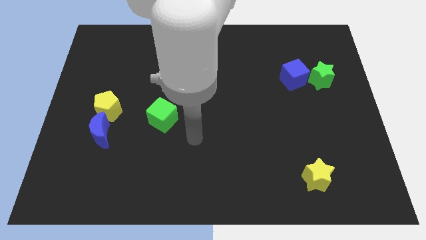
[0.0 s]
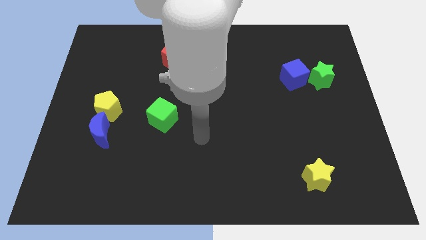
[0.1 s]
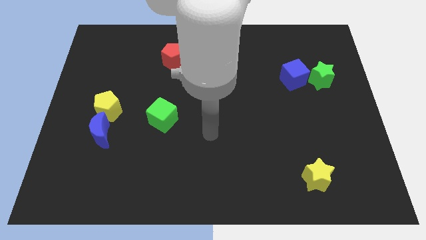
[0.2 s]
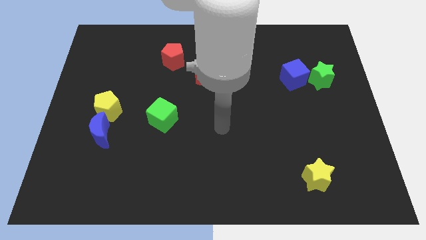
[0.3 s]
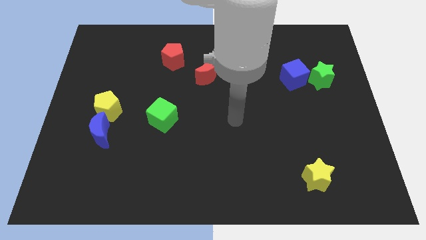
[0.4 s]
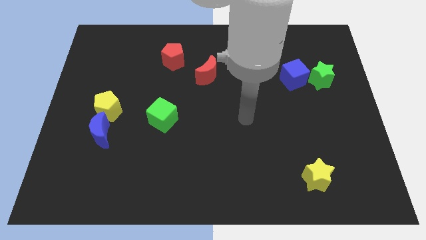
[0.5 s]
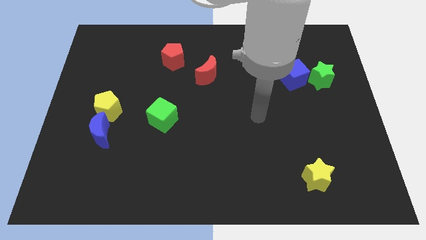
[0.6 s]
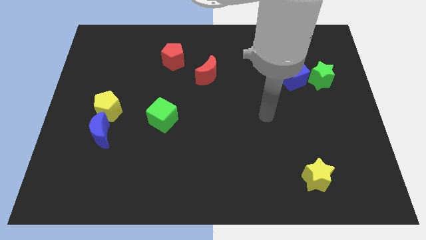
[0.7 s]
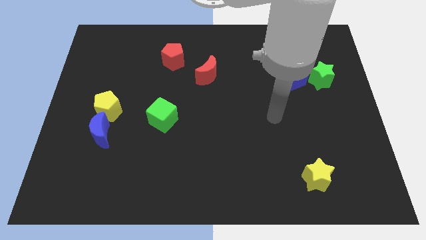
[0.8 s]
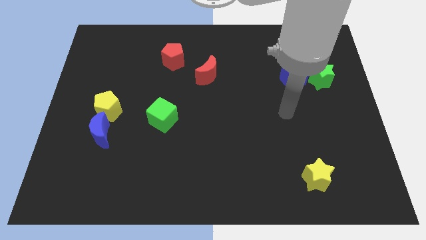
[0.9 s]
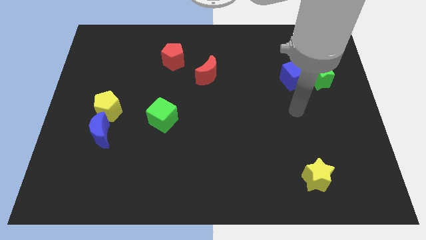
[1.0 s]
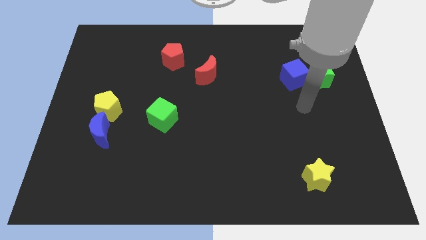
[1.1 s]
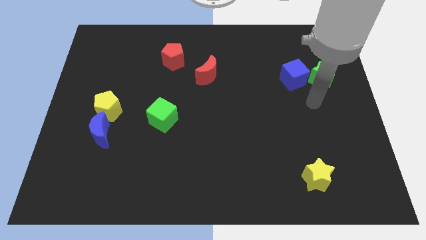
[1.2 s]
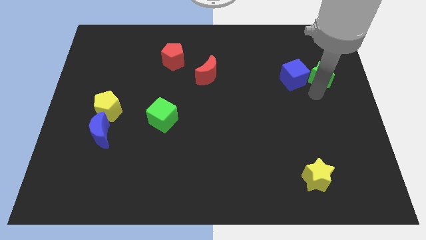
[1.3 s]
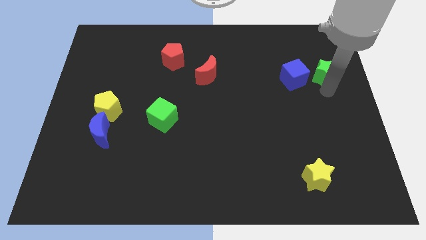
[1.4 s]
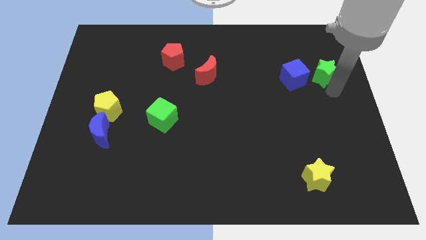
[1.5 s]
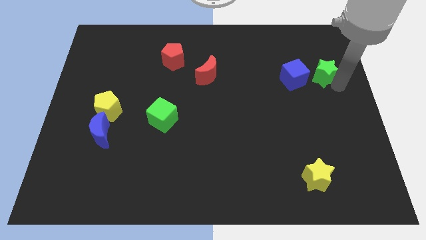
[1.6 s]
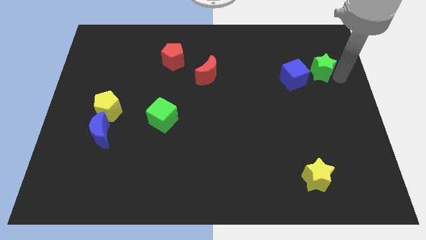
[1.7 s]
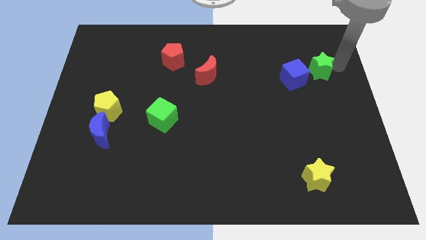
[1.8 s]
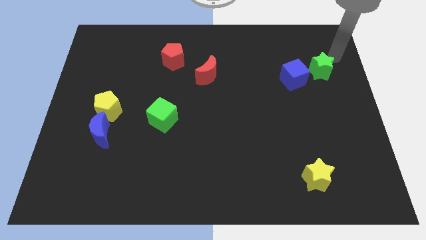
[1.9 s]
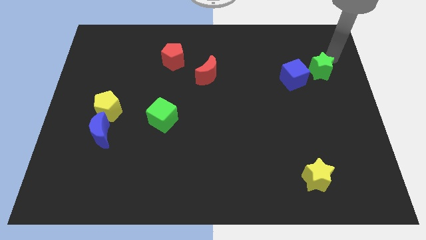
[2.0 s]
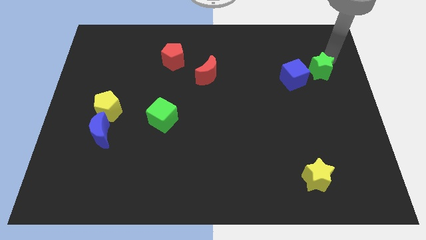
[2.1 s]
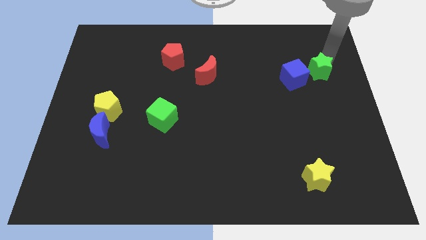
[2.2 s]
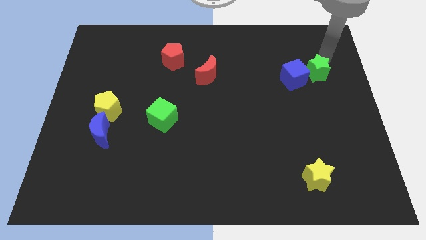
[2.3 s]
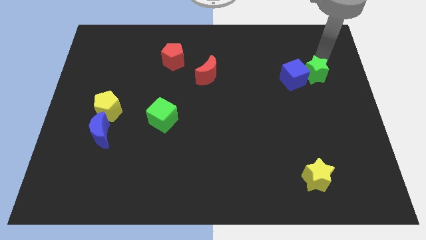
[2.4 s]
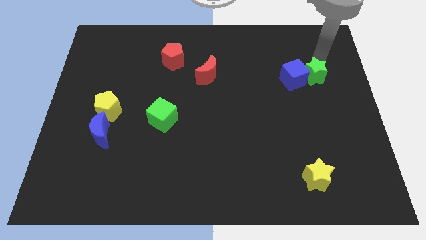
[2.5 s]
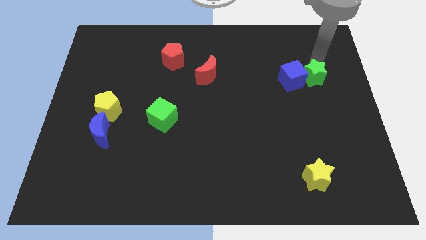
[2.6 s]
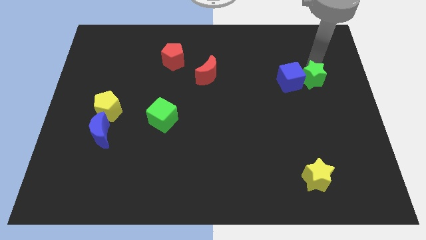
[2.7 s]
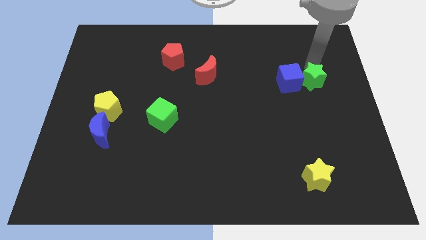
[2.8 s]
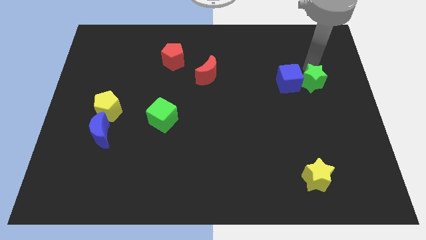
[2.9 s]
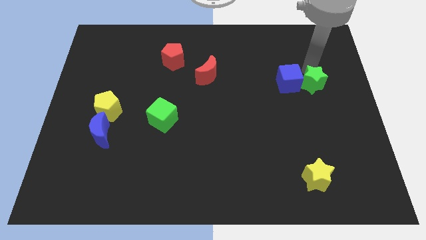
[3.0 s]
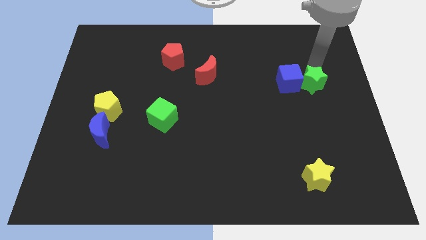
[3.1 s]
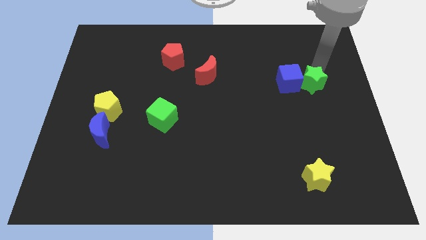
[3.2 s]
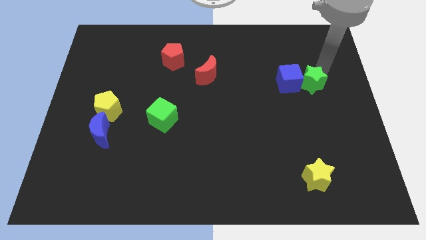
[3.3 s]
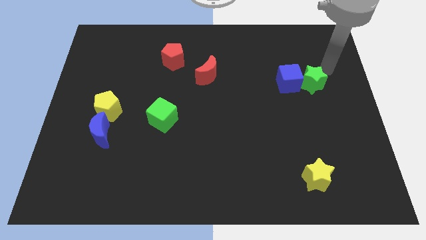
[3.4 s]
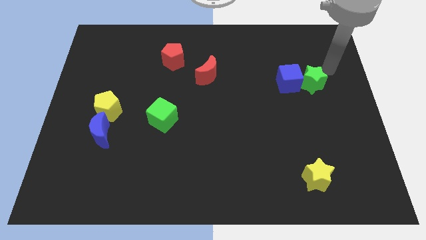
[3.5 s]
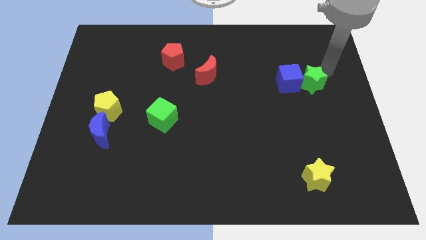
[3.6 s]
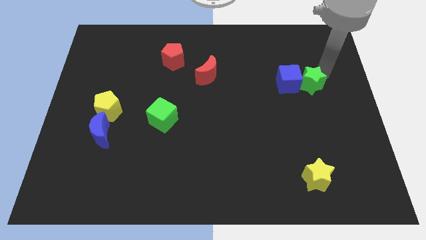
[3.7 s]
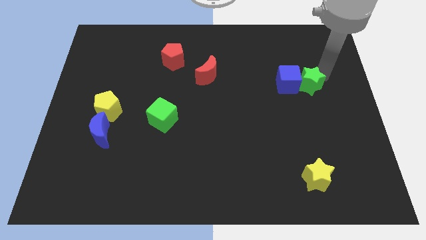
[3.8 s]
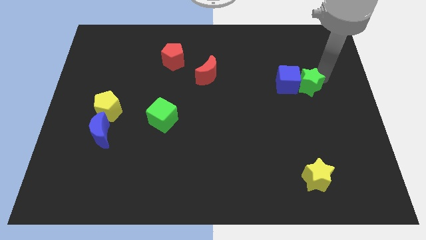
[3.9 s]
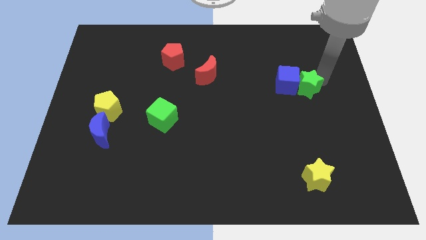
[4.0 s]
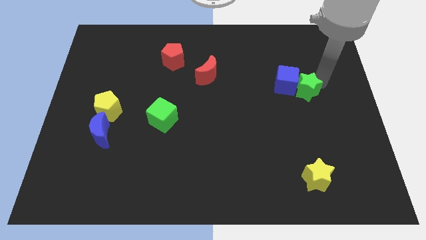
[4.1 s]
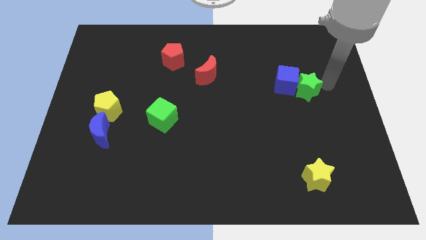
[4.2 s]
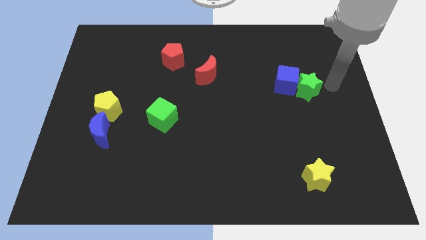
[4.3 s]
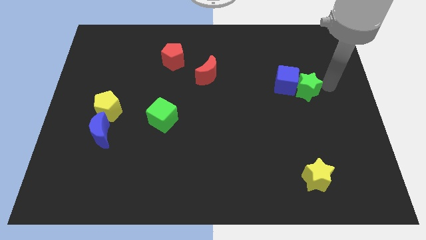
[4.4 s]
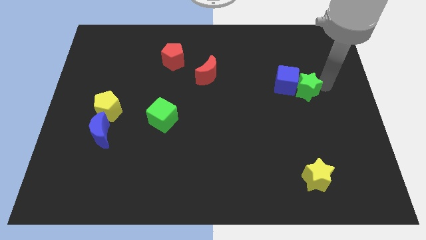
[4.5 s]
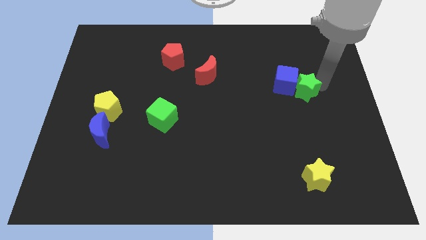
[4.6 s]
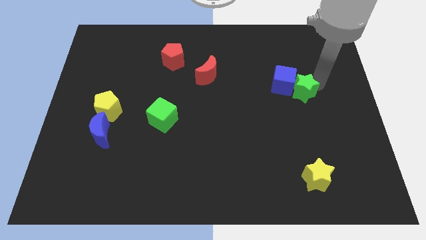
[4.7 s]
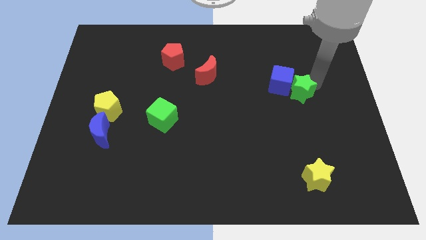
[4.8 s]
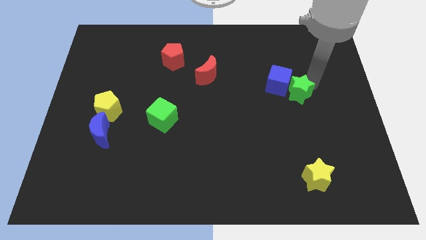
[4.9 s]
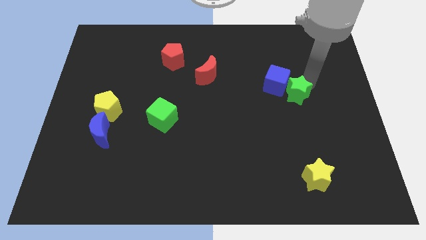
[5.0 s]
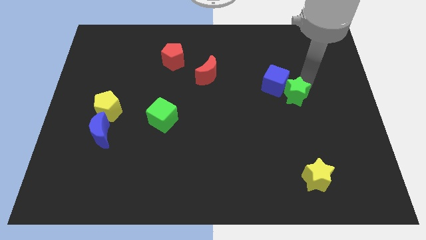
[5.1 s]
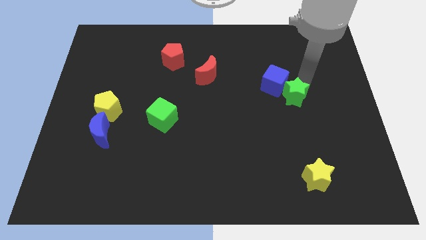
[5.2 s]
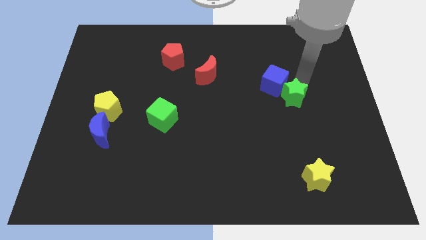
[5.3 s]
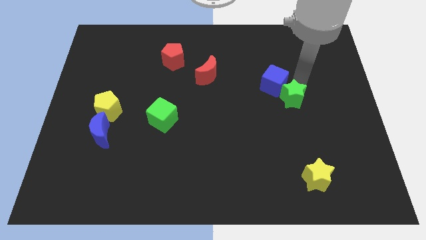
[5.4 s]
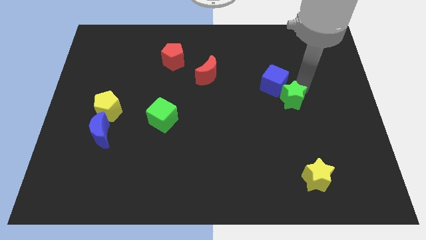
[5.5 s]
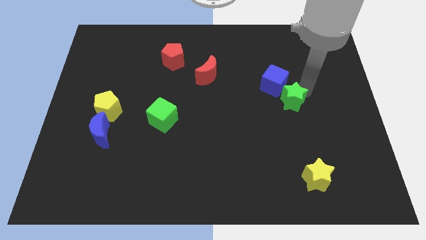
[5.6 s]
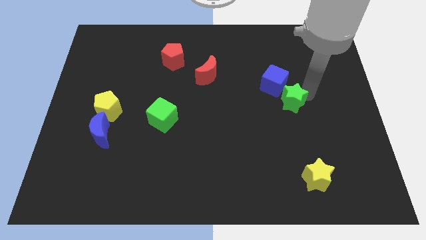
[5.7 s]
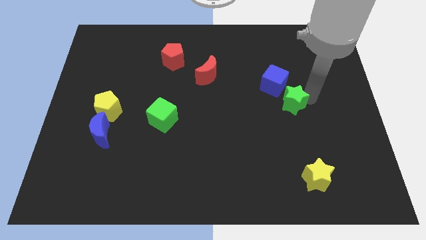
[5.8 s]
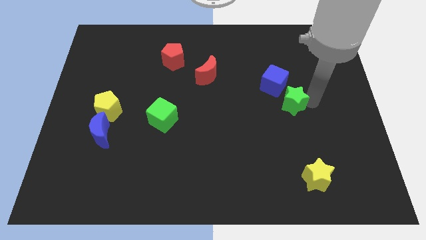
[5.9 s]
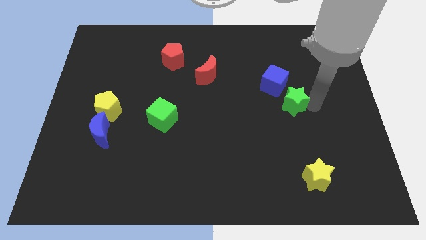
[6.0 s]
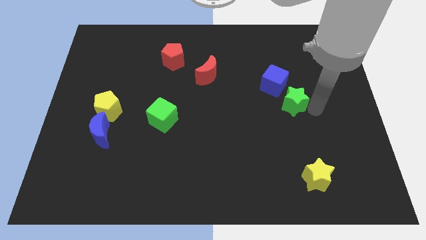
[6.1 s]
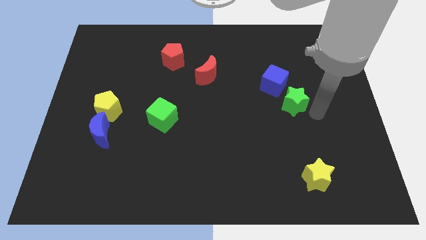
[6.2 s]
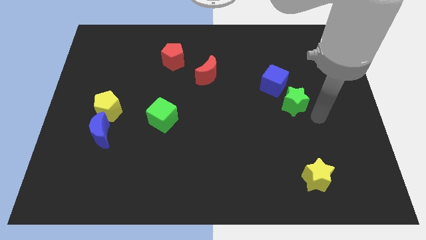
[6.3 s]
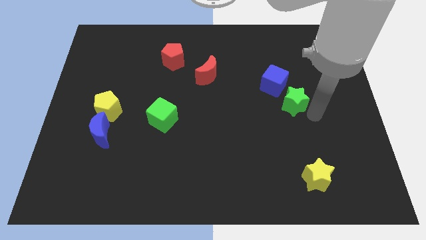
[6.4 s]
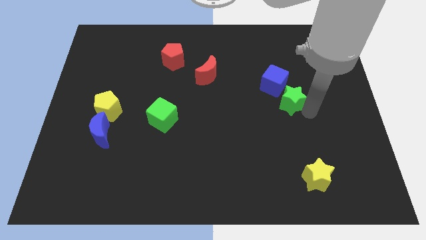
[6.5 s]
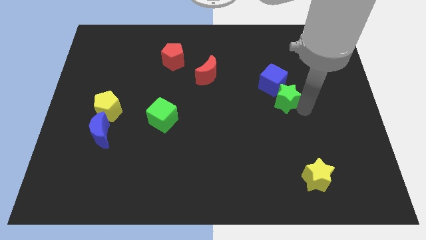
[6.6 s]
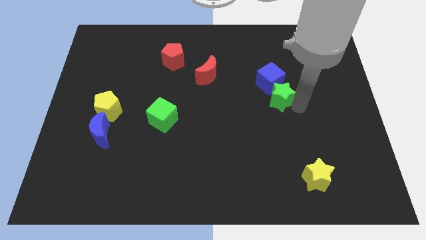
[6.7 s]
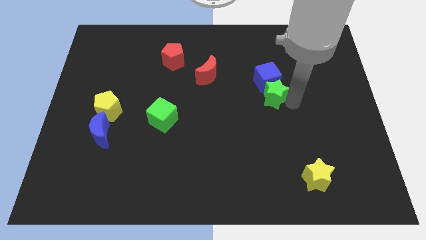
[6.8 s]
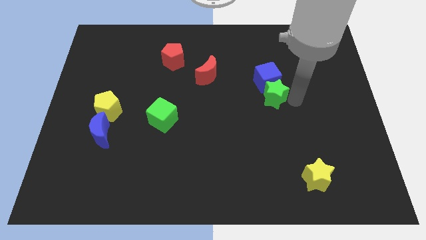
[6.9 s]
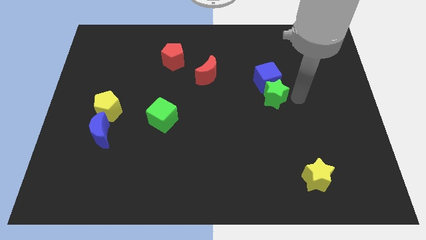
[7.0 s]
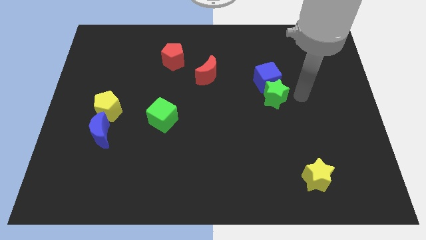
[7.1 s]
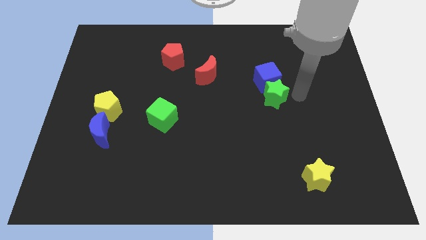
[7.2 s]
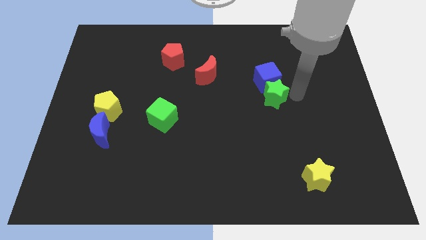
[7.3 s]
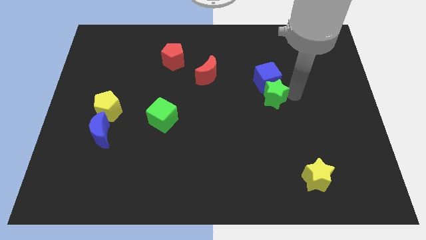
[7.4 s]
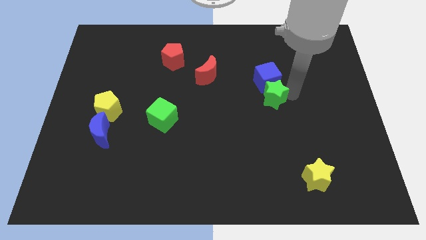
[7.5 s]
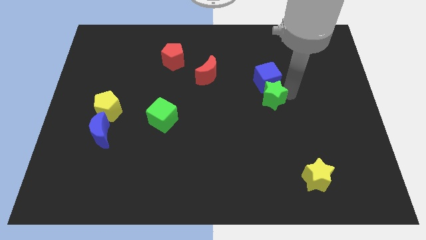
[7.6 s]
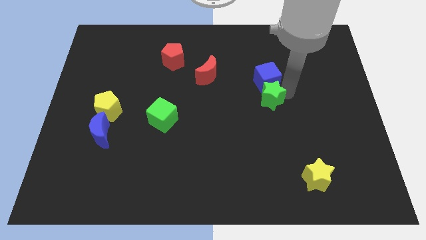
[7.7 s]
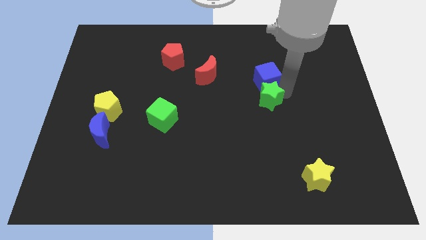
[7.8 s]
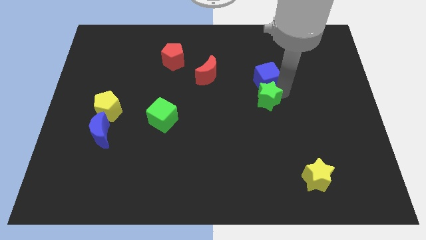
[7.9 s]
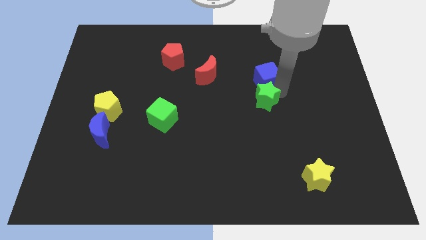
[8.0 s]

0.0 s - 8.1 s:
slide the green star to the middle of the board
